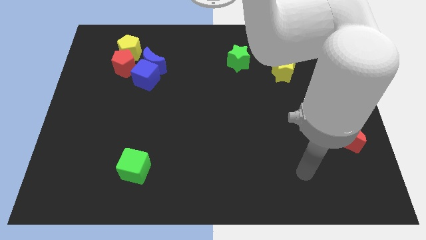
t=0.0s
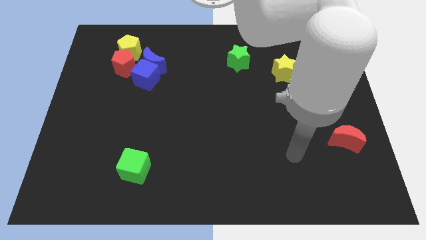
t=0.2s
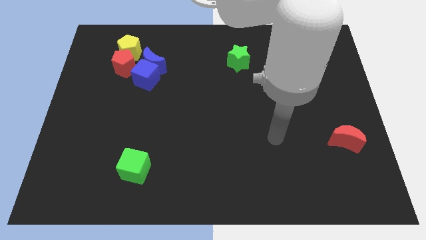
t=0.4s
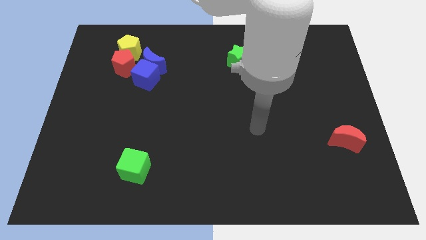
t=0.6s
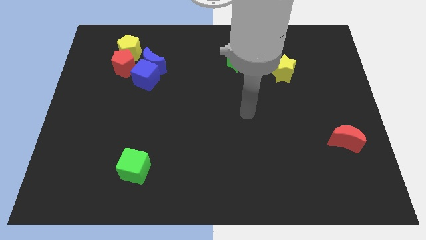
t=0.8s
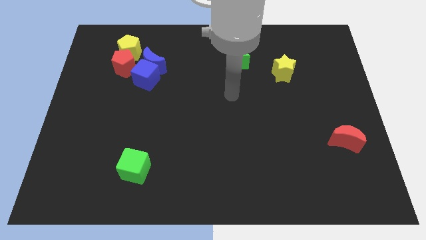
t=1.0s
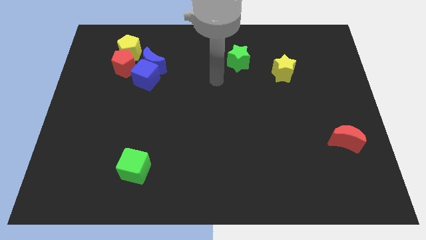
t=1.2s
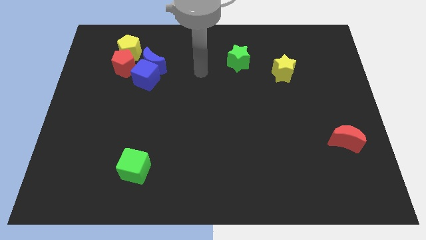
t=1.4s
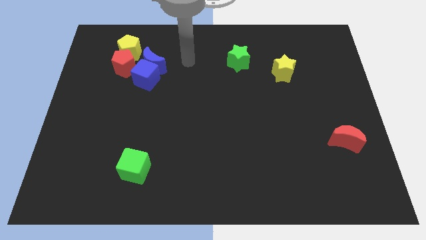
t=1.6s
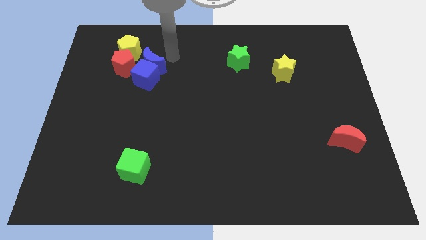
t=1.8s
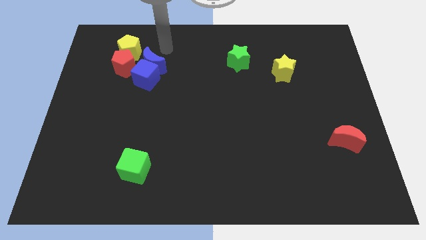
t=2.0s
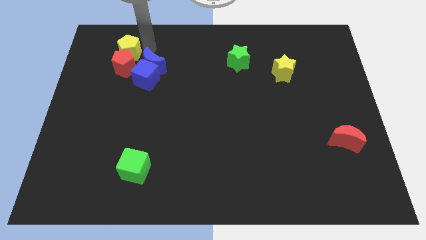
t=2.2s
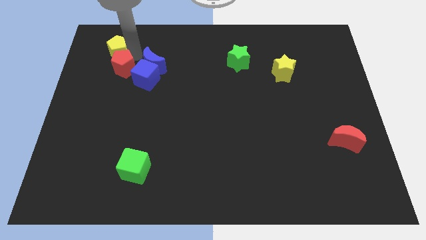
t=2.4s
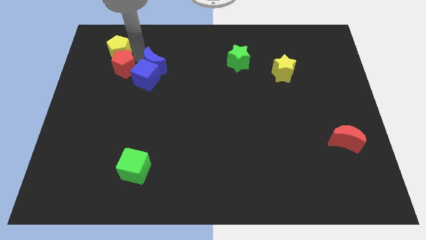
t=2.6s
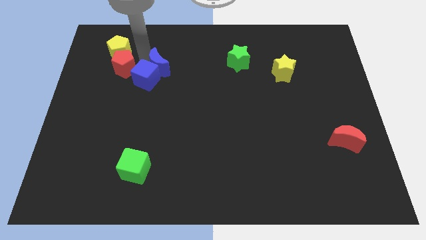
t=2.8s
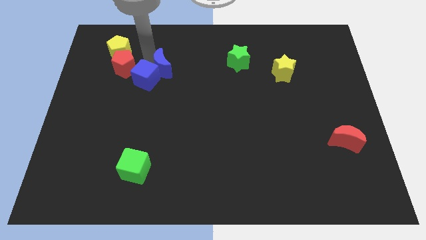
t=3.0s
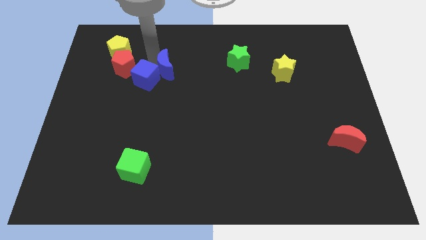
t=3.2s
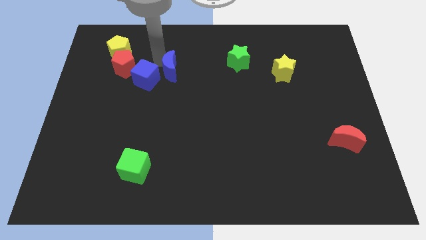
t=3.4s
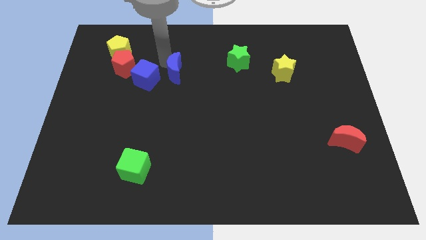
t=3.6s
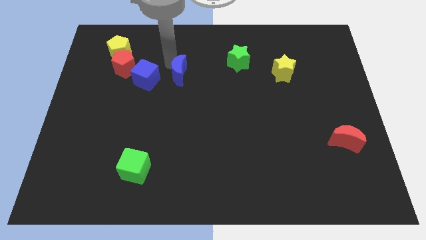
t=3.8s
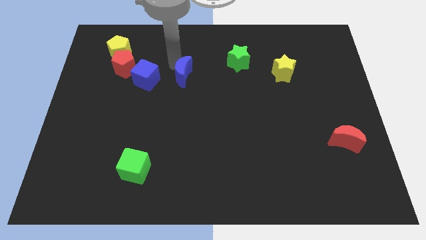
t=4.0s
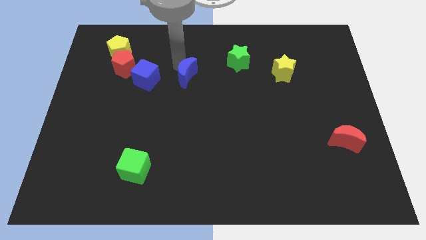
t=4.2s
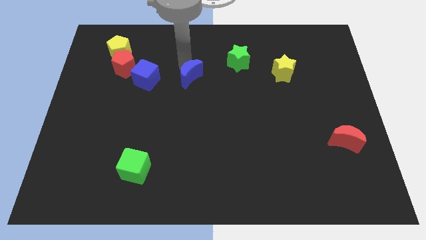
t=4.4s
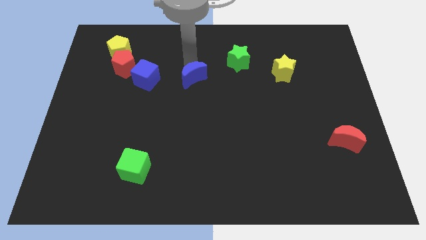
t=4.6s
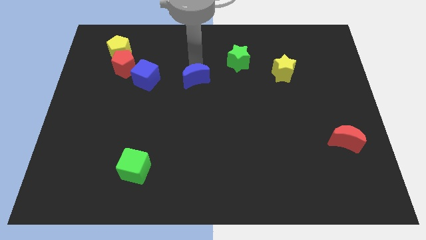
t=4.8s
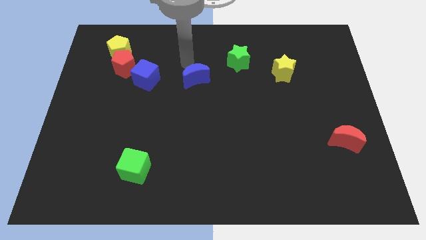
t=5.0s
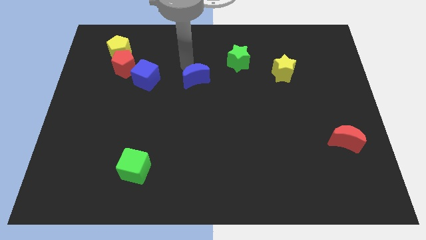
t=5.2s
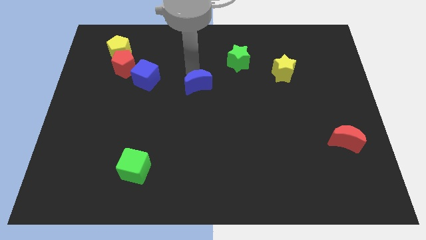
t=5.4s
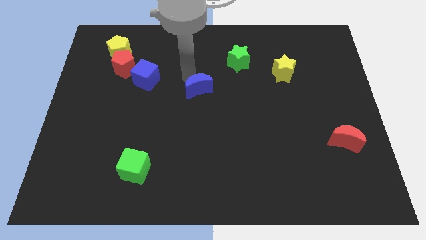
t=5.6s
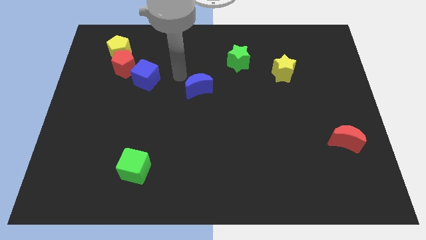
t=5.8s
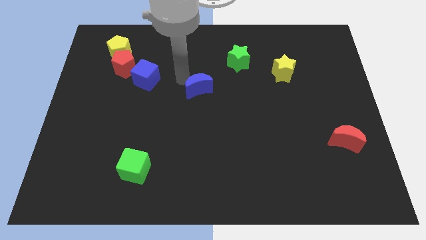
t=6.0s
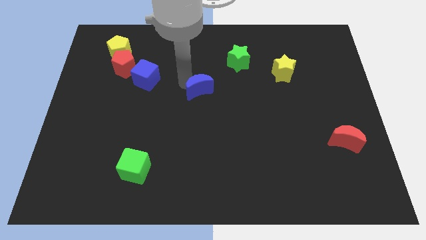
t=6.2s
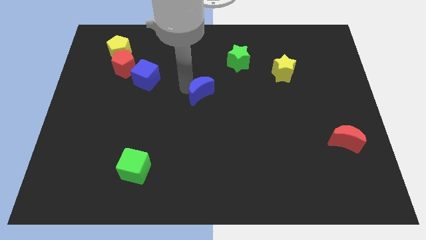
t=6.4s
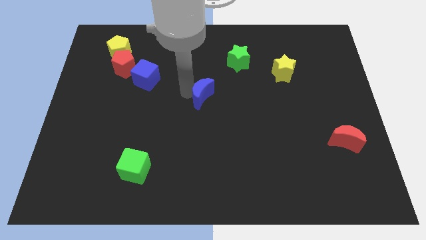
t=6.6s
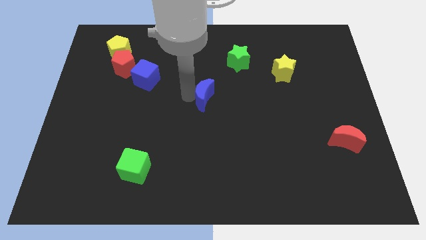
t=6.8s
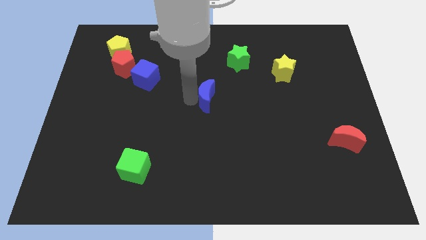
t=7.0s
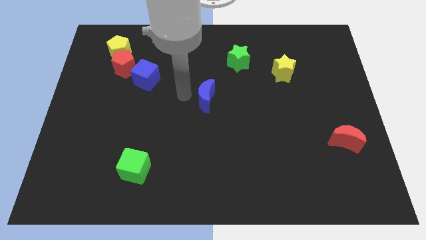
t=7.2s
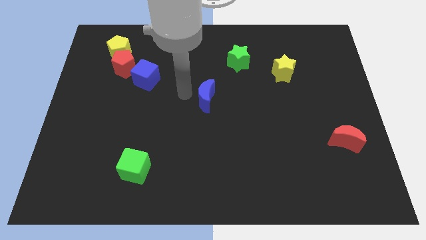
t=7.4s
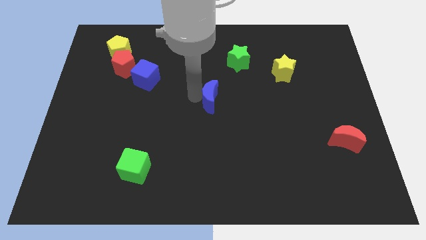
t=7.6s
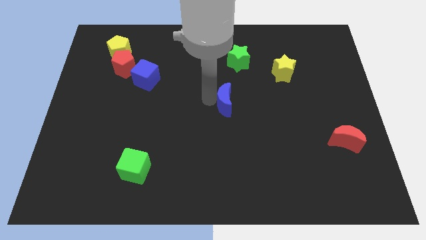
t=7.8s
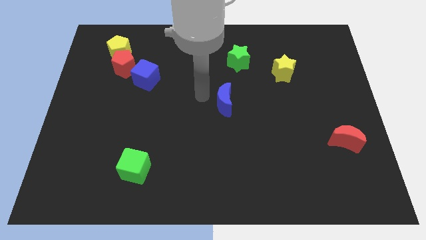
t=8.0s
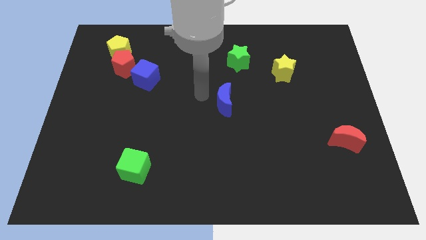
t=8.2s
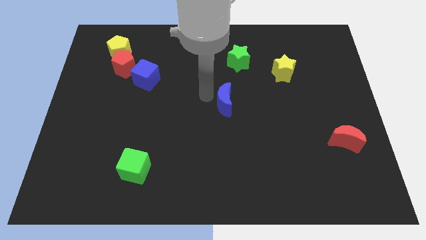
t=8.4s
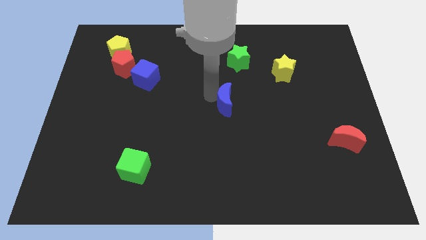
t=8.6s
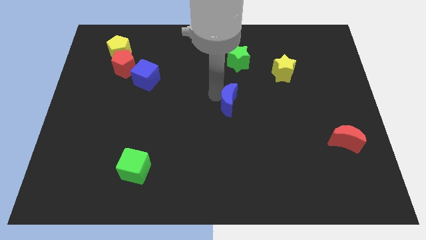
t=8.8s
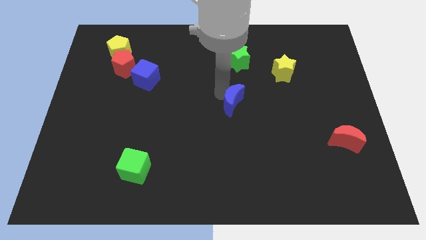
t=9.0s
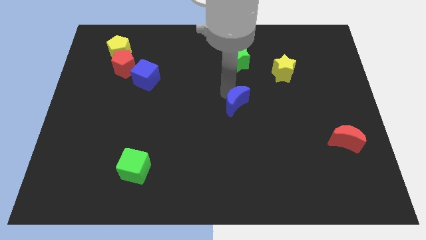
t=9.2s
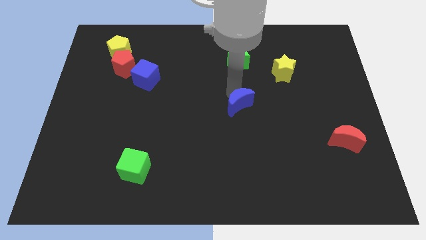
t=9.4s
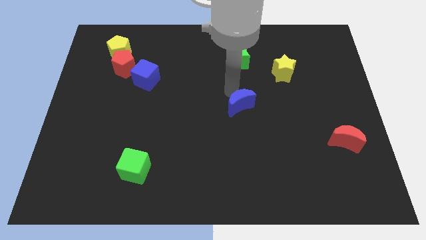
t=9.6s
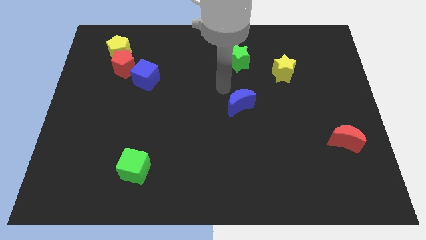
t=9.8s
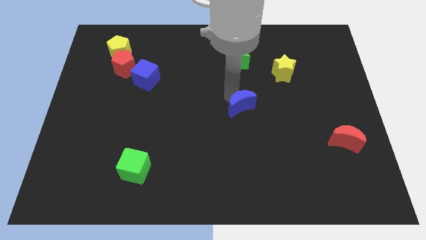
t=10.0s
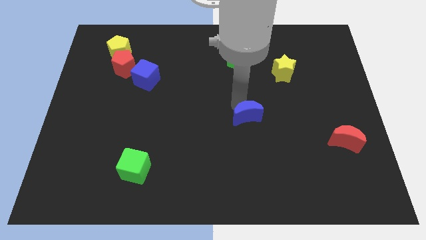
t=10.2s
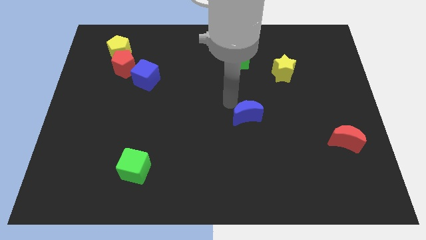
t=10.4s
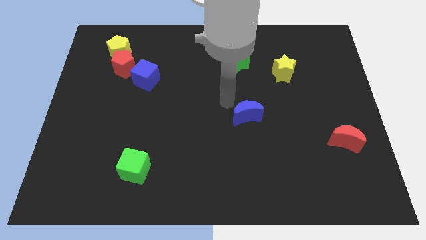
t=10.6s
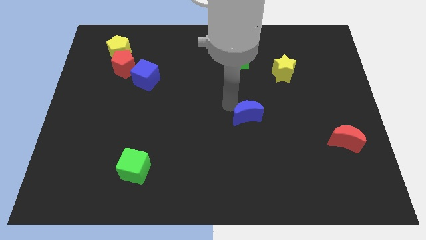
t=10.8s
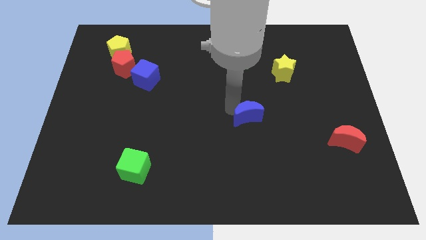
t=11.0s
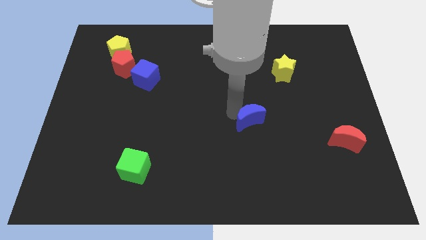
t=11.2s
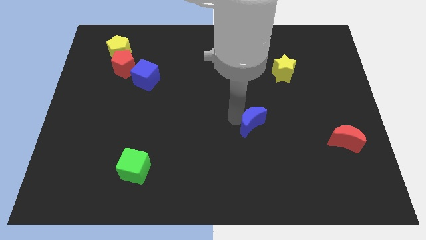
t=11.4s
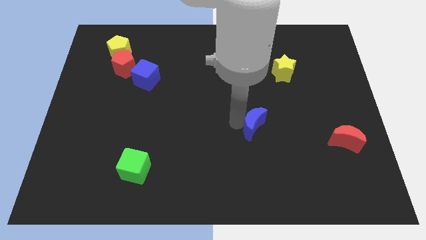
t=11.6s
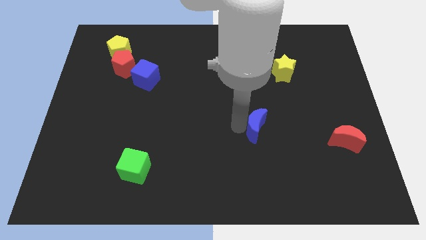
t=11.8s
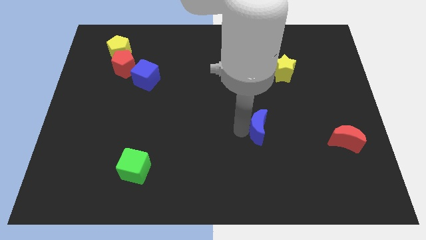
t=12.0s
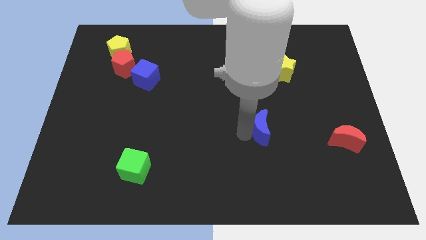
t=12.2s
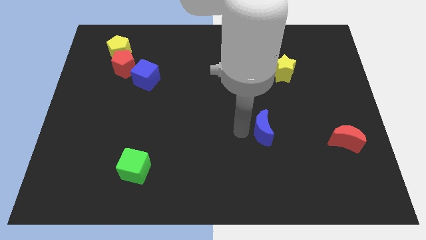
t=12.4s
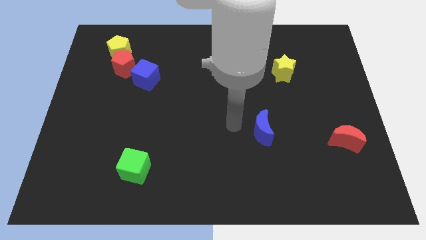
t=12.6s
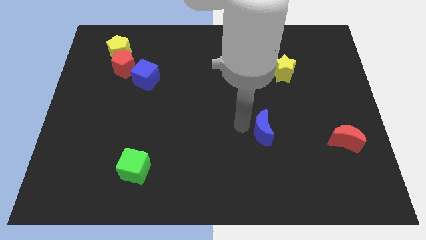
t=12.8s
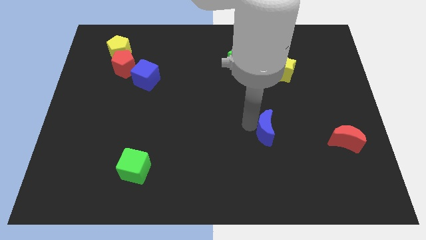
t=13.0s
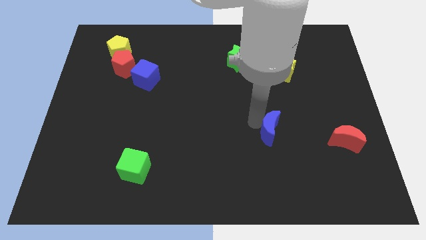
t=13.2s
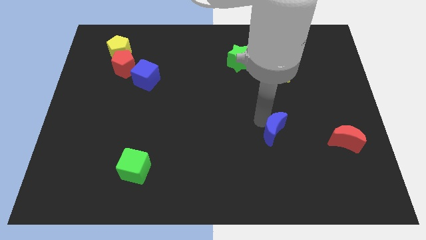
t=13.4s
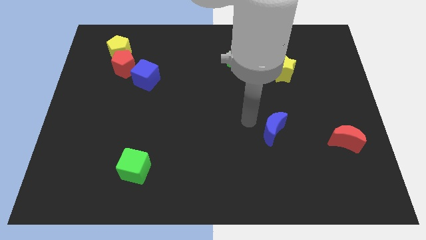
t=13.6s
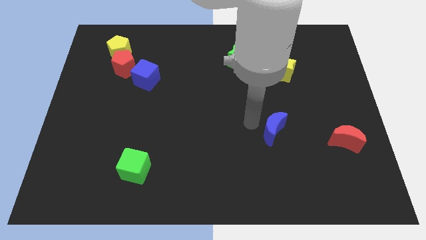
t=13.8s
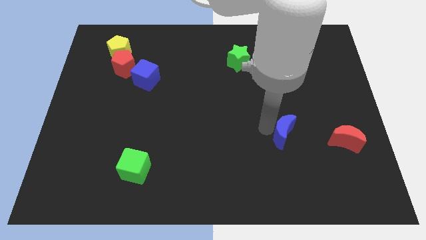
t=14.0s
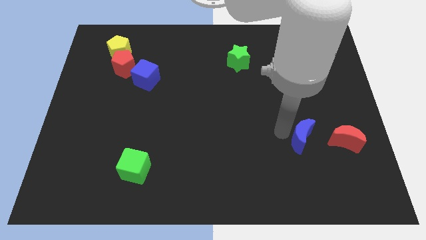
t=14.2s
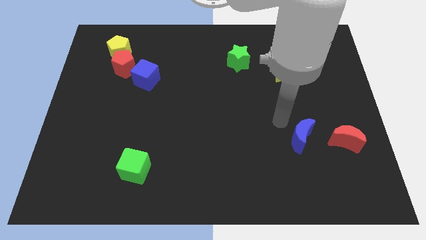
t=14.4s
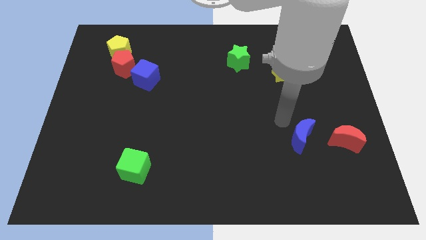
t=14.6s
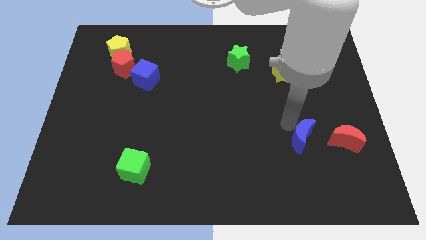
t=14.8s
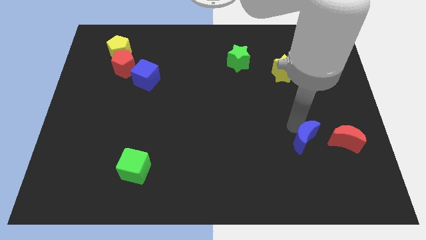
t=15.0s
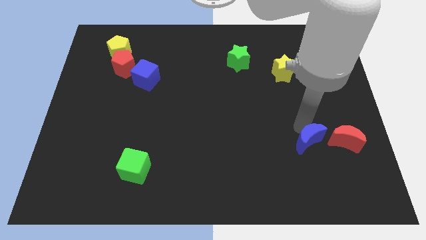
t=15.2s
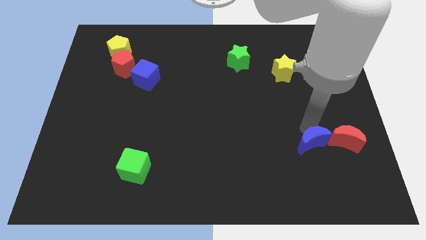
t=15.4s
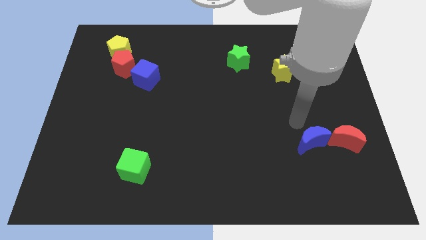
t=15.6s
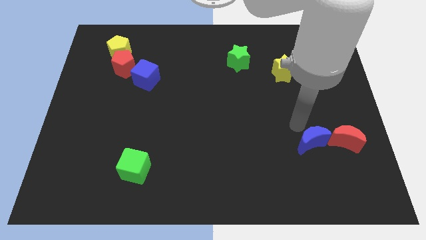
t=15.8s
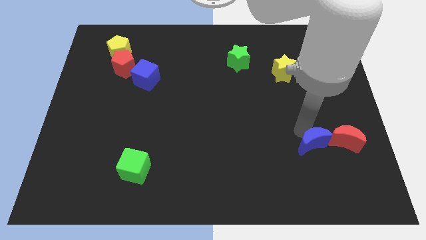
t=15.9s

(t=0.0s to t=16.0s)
move the blue moon diagonally down and to the left of the red moon
